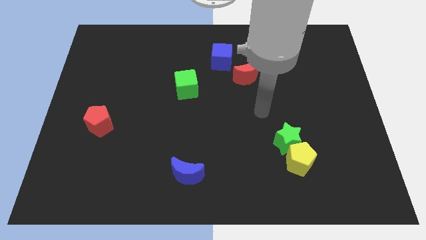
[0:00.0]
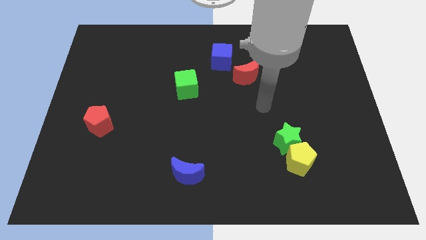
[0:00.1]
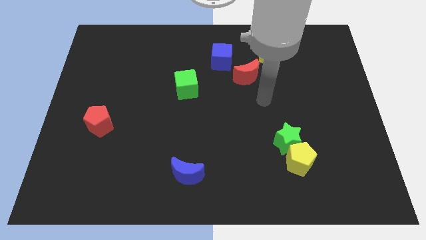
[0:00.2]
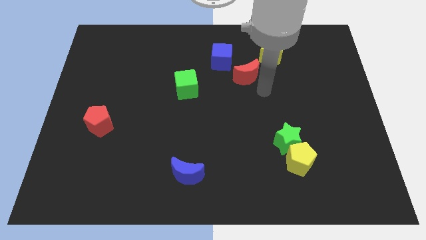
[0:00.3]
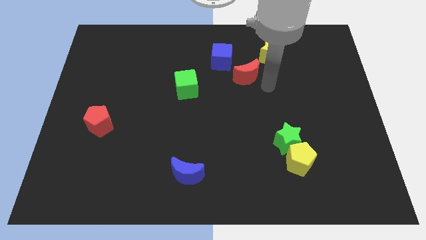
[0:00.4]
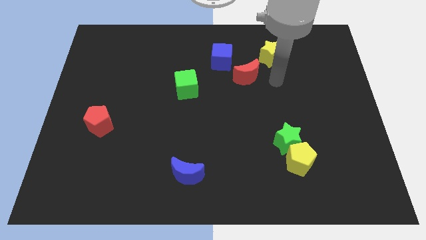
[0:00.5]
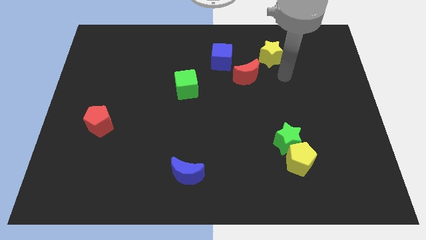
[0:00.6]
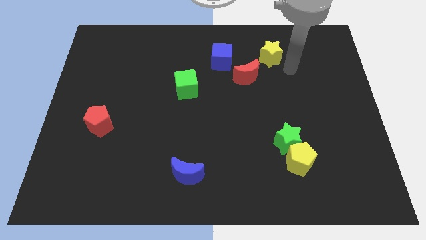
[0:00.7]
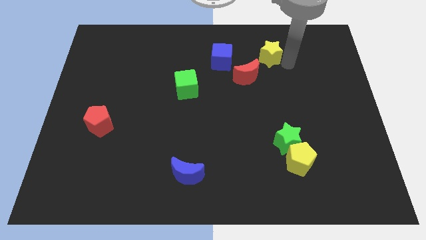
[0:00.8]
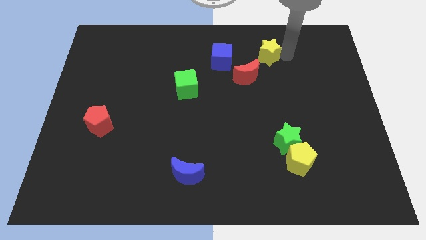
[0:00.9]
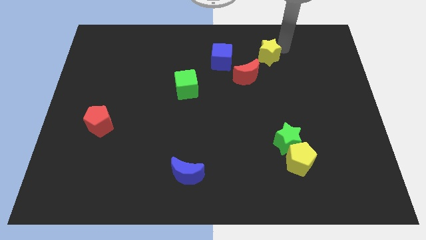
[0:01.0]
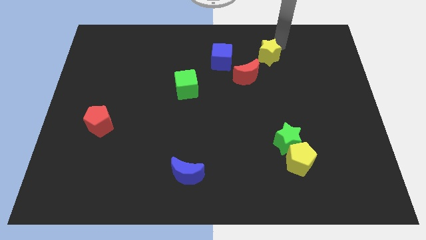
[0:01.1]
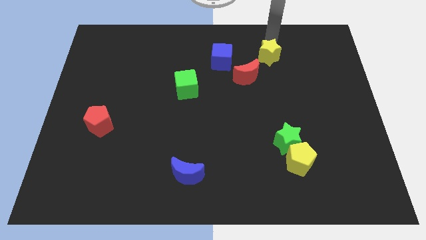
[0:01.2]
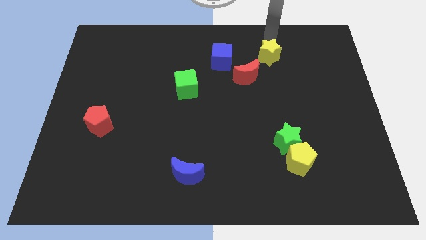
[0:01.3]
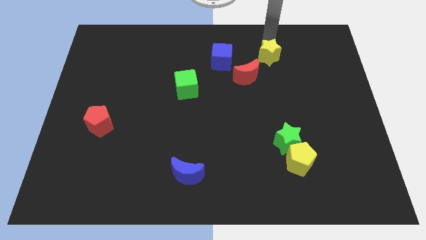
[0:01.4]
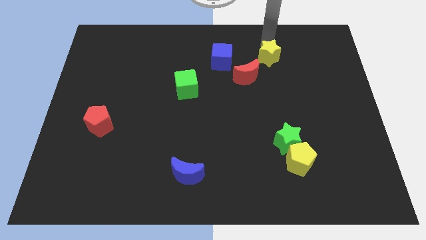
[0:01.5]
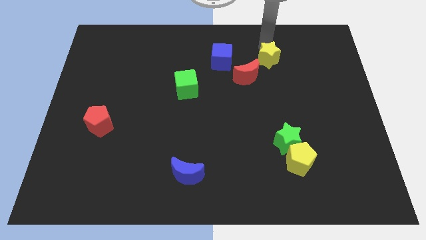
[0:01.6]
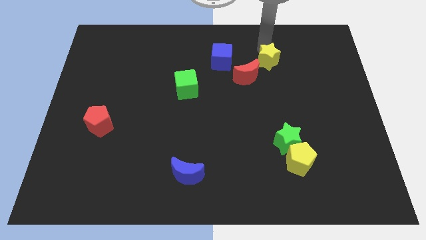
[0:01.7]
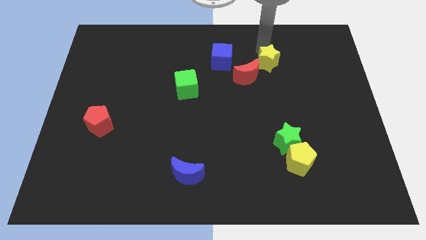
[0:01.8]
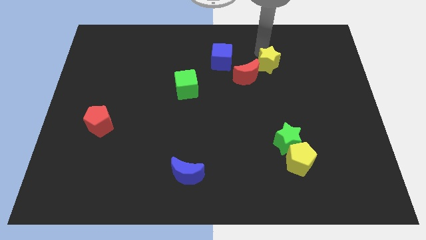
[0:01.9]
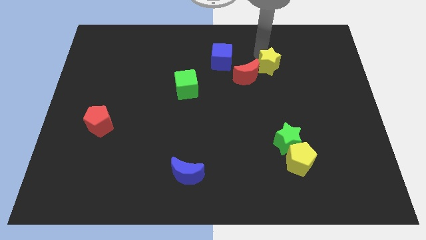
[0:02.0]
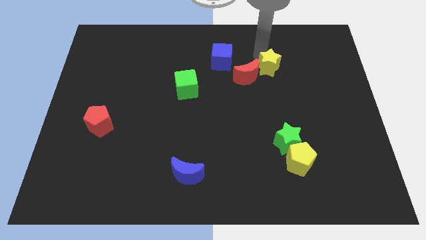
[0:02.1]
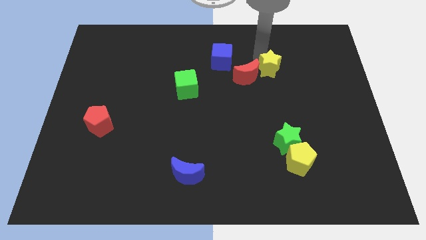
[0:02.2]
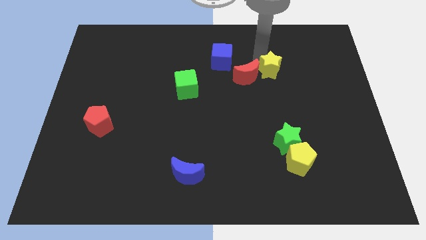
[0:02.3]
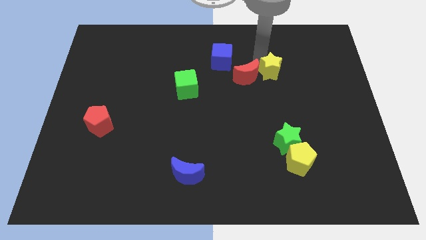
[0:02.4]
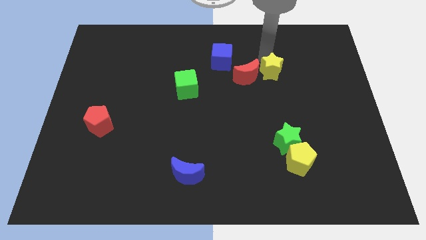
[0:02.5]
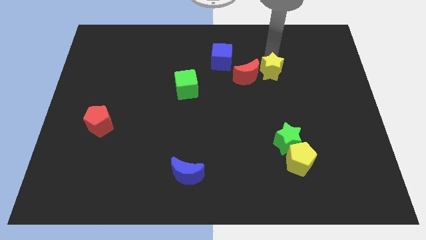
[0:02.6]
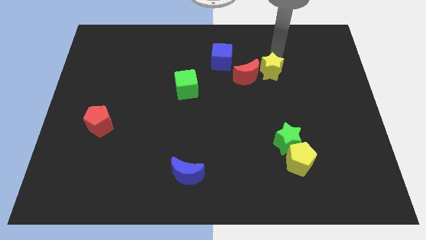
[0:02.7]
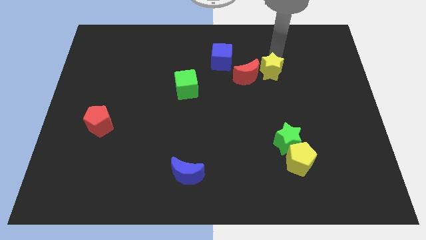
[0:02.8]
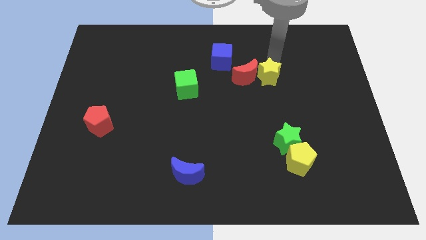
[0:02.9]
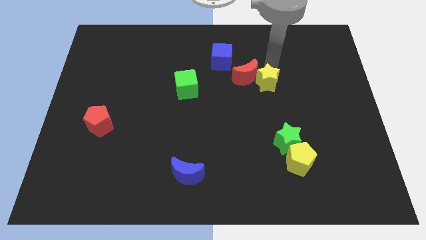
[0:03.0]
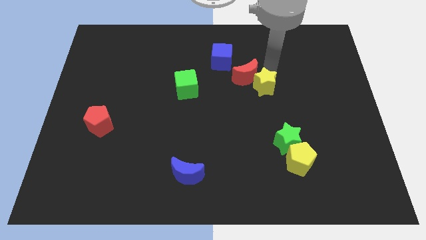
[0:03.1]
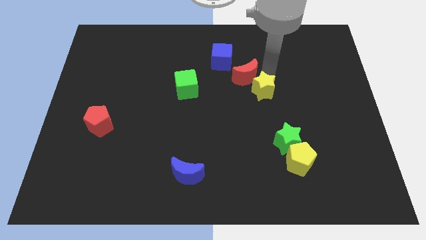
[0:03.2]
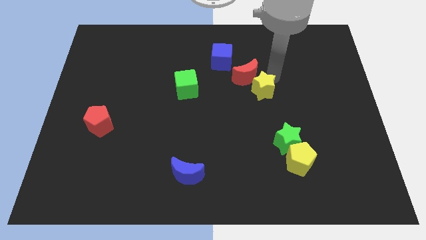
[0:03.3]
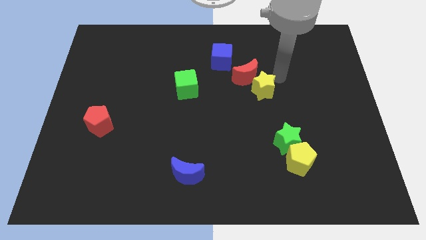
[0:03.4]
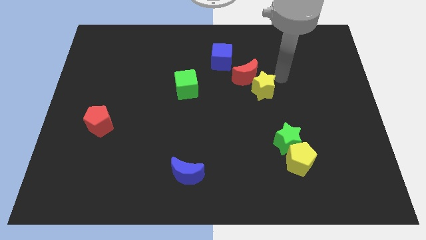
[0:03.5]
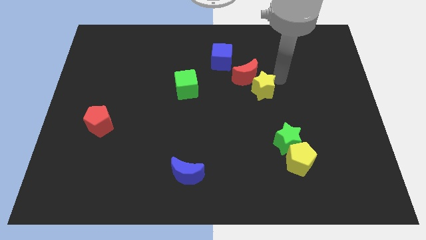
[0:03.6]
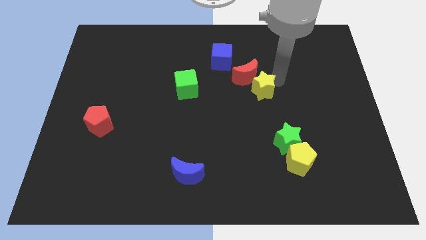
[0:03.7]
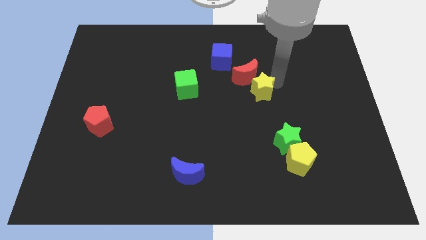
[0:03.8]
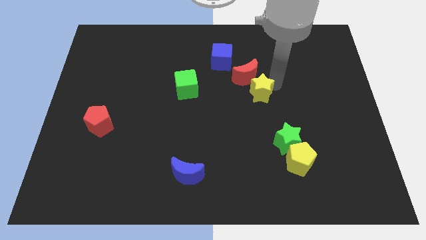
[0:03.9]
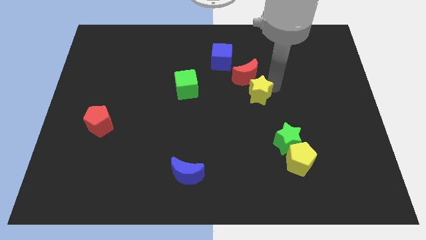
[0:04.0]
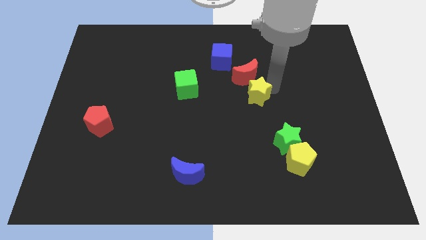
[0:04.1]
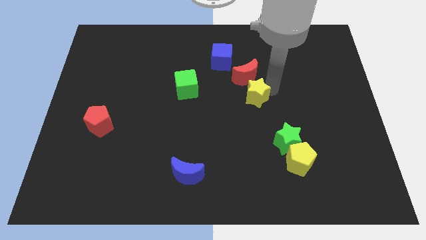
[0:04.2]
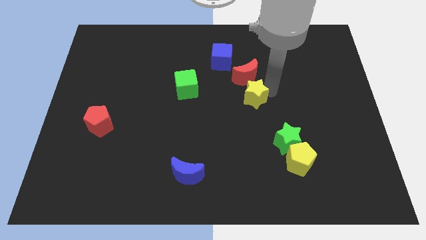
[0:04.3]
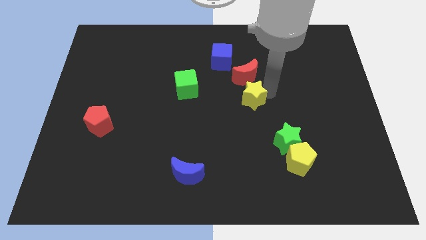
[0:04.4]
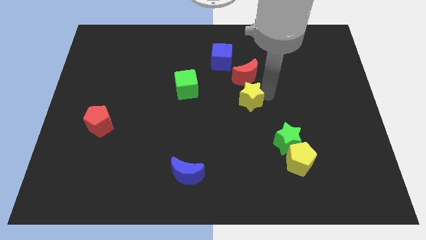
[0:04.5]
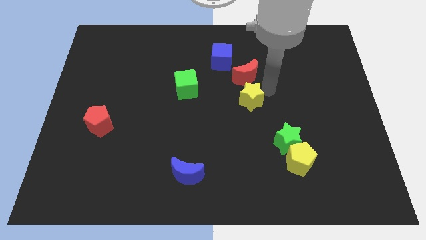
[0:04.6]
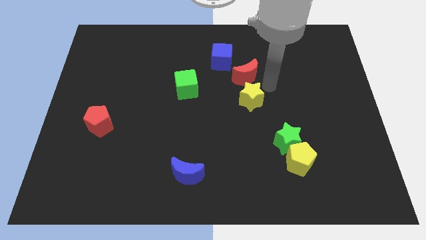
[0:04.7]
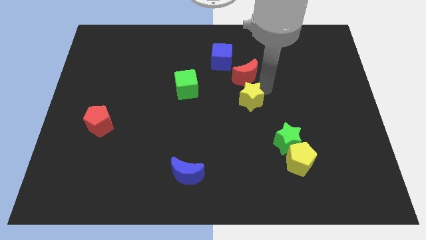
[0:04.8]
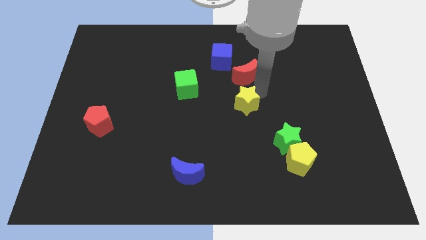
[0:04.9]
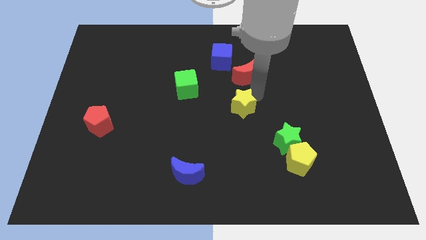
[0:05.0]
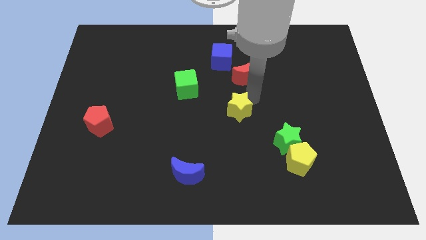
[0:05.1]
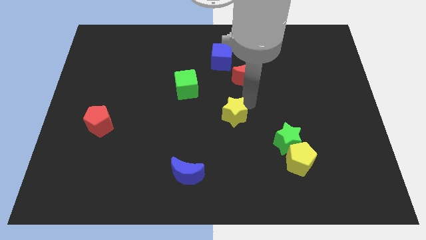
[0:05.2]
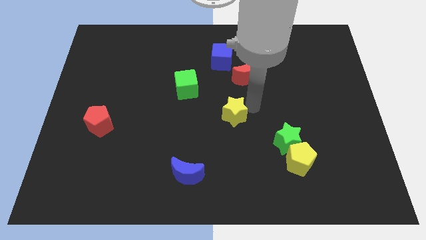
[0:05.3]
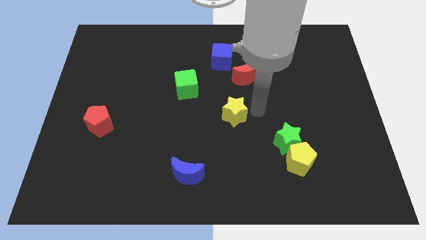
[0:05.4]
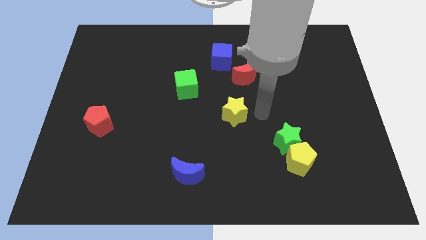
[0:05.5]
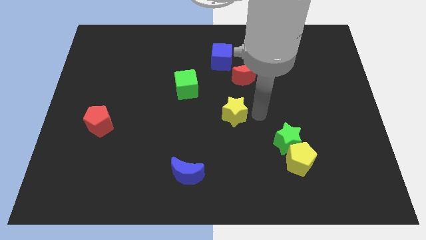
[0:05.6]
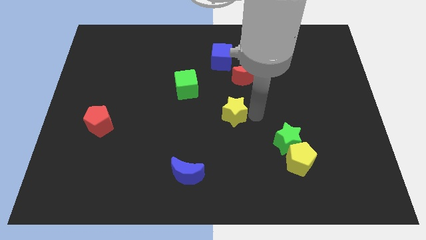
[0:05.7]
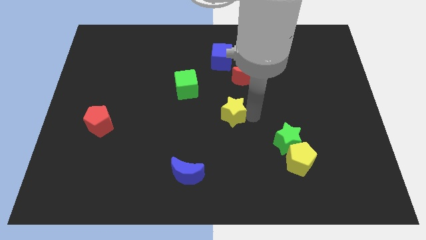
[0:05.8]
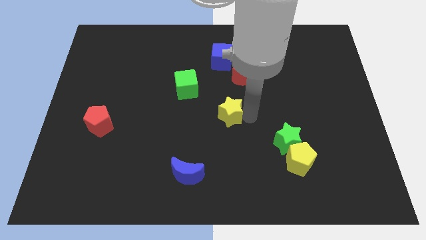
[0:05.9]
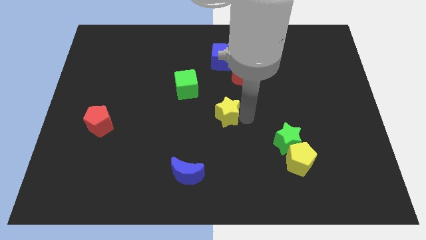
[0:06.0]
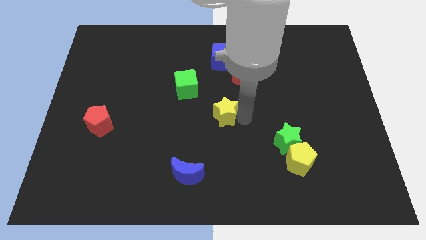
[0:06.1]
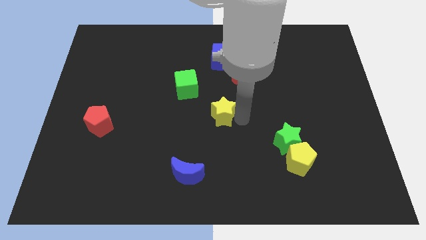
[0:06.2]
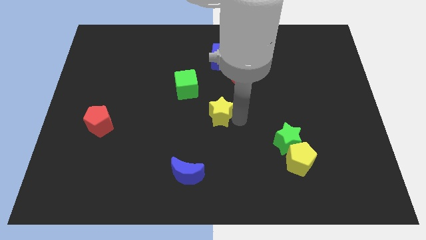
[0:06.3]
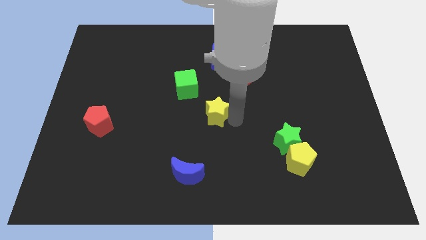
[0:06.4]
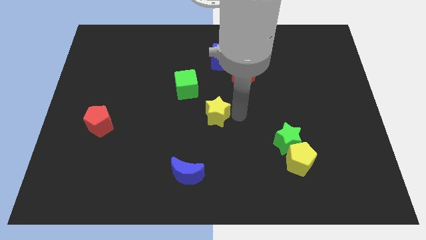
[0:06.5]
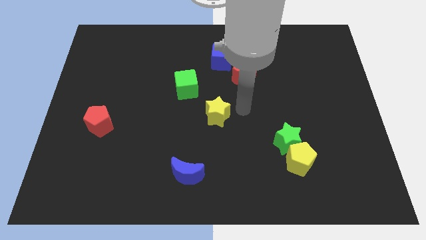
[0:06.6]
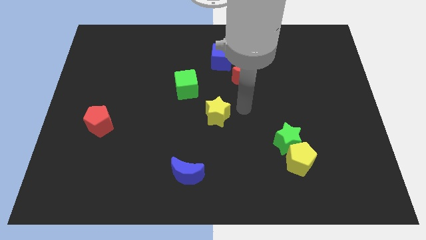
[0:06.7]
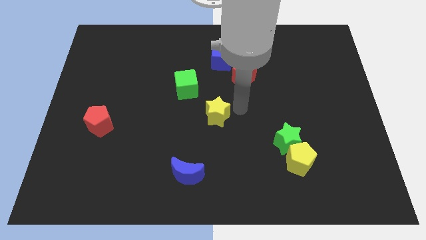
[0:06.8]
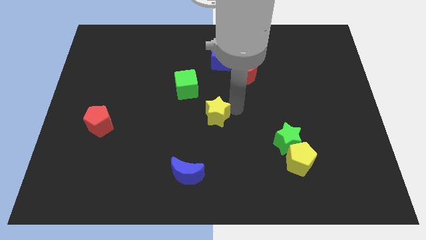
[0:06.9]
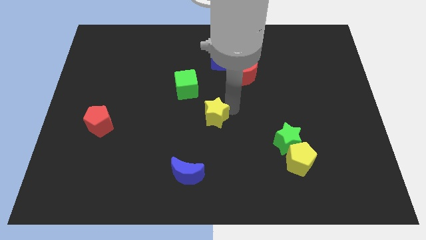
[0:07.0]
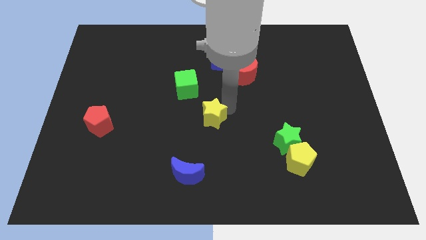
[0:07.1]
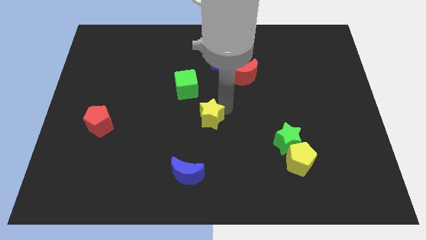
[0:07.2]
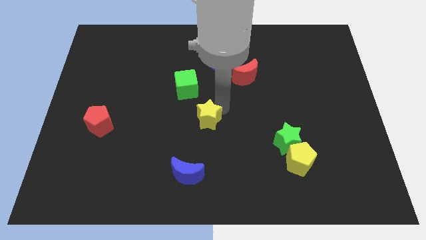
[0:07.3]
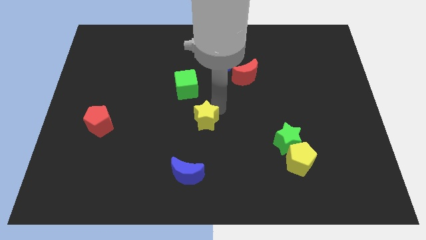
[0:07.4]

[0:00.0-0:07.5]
move the yellow star to the bottom of the green cube

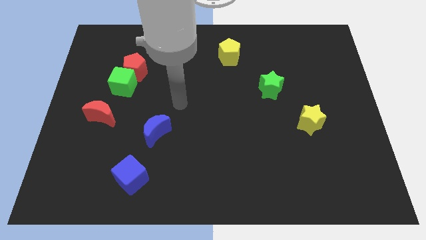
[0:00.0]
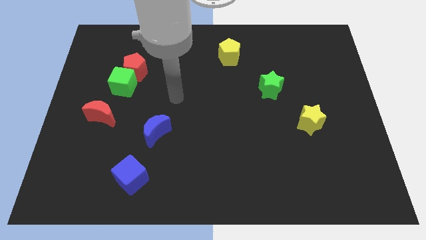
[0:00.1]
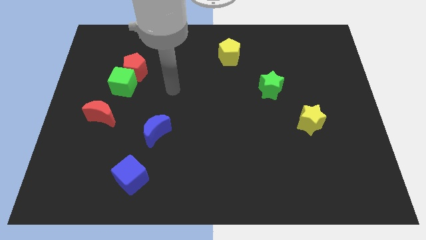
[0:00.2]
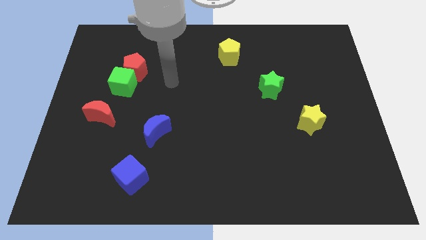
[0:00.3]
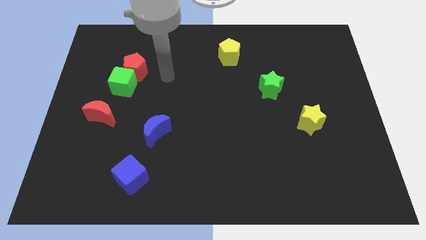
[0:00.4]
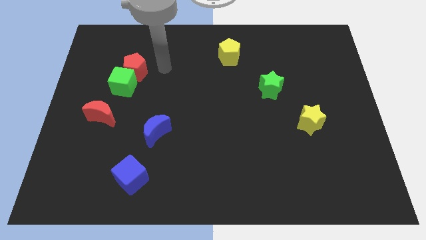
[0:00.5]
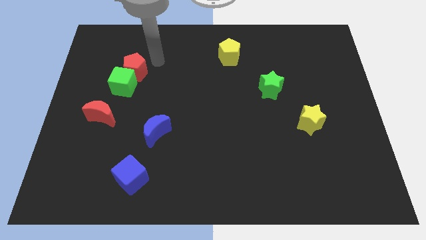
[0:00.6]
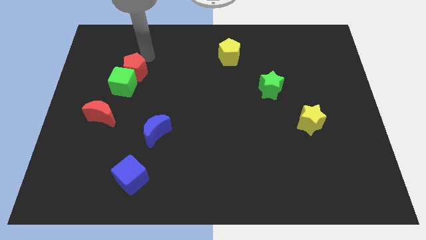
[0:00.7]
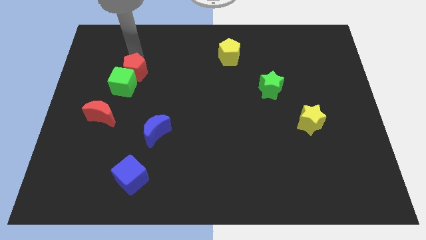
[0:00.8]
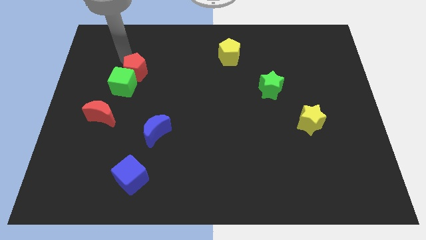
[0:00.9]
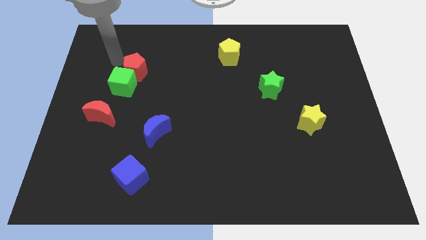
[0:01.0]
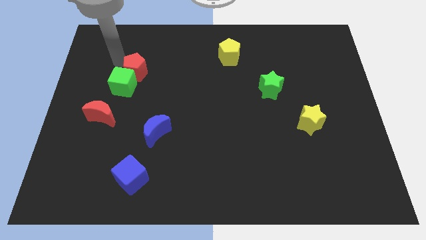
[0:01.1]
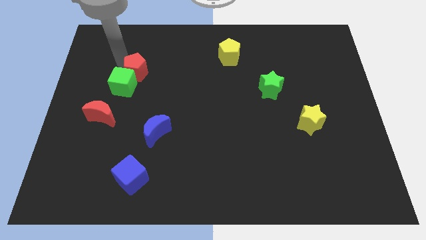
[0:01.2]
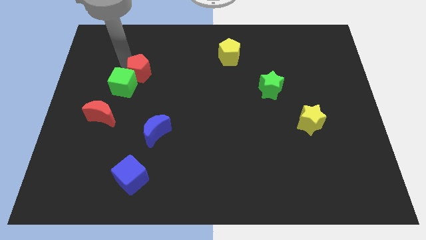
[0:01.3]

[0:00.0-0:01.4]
slide the red pentagon to the right side of the green cube
